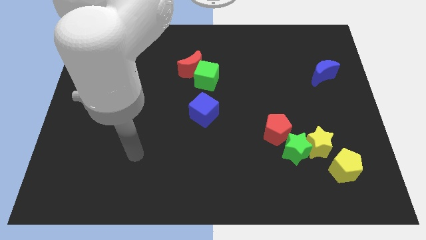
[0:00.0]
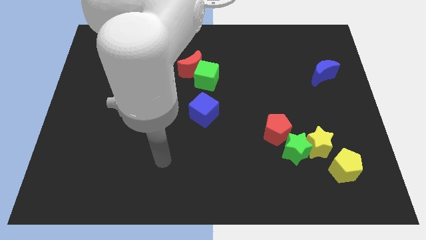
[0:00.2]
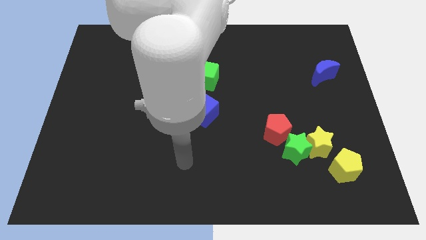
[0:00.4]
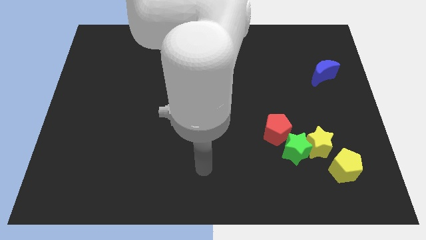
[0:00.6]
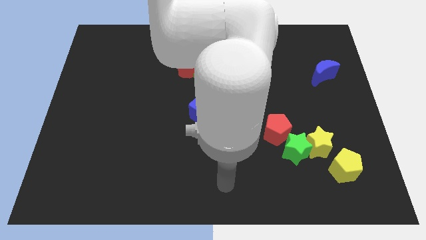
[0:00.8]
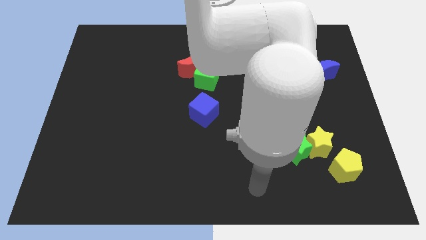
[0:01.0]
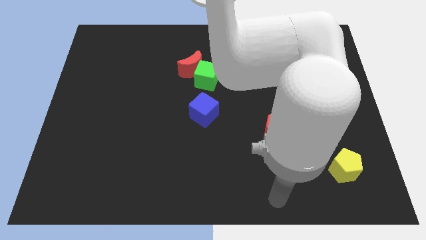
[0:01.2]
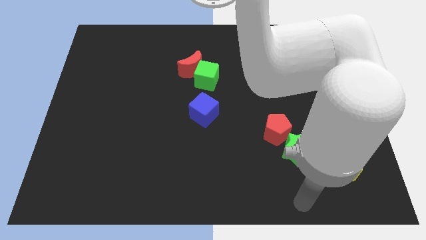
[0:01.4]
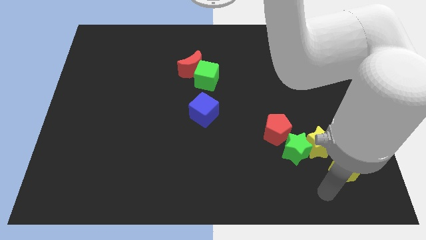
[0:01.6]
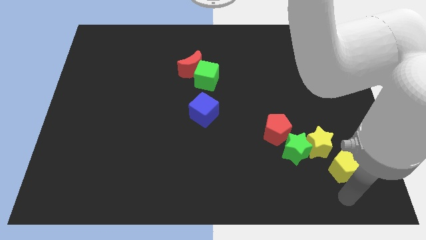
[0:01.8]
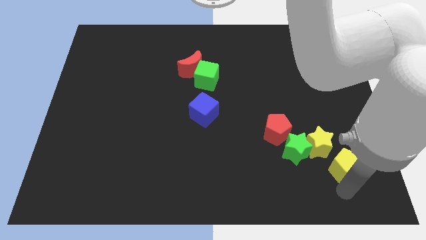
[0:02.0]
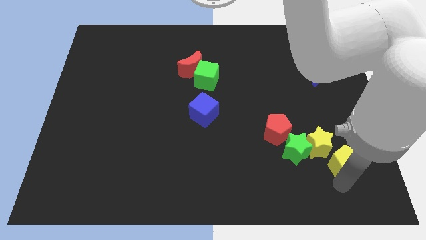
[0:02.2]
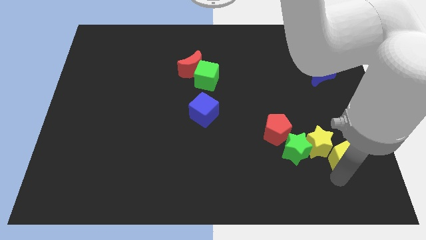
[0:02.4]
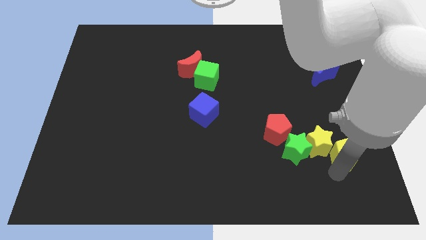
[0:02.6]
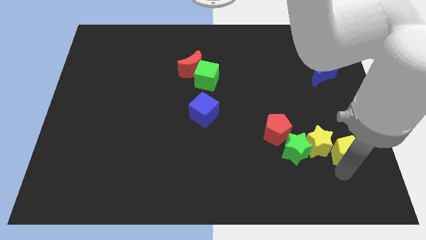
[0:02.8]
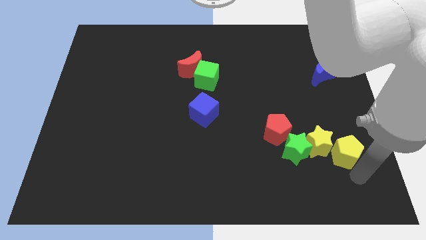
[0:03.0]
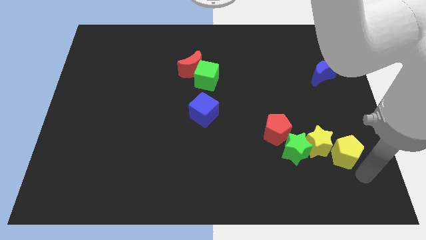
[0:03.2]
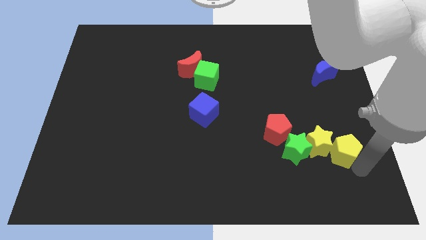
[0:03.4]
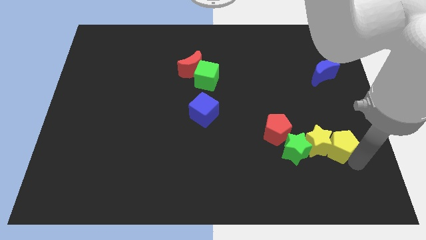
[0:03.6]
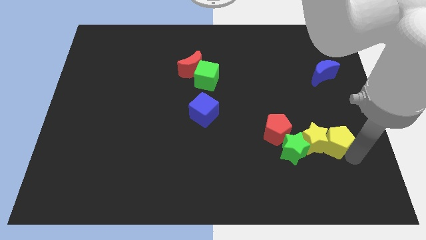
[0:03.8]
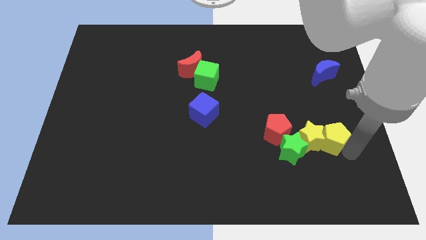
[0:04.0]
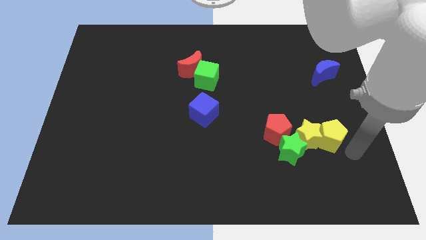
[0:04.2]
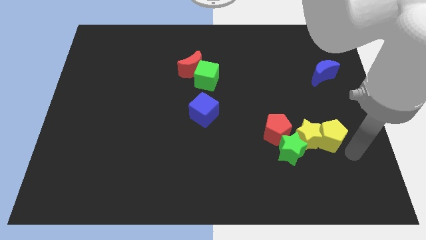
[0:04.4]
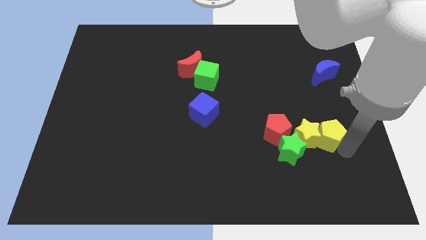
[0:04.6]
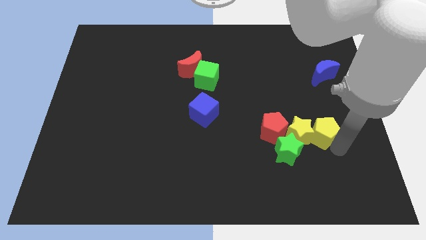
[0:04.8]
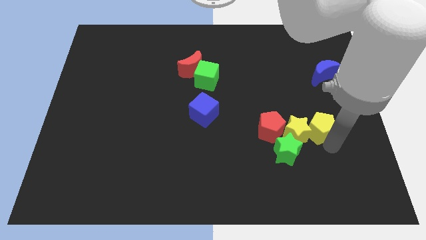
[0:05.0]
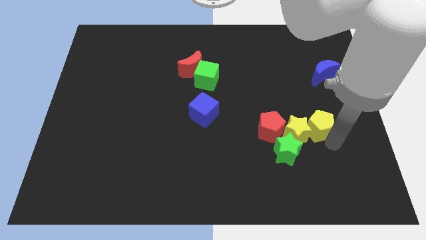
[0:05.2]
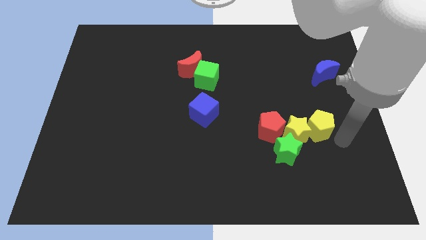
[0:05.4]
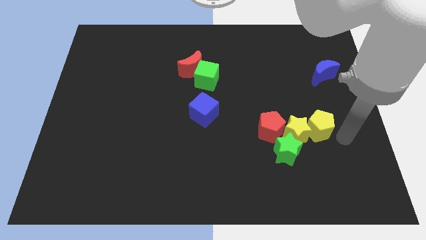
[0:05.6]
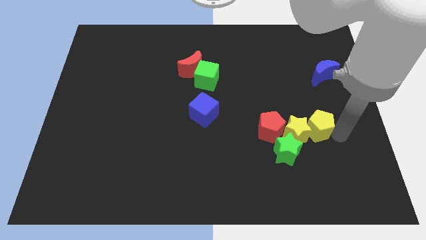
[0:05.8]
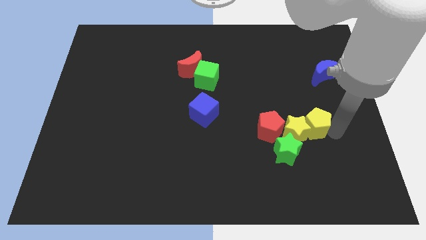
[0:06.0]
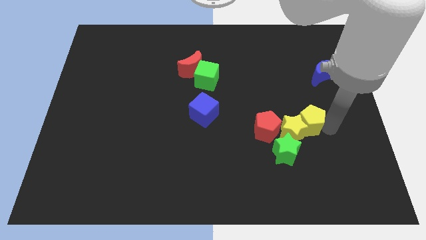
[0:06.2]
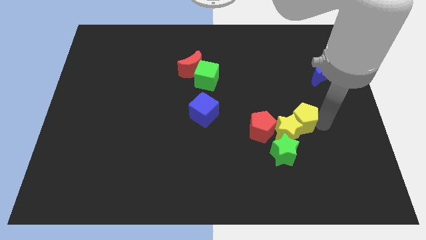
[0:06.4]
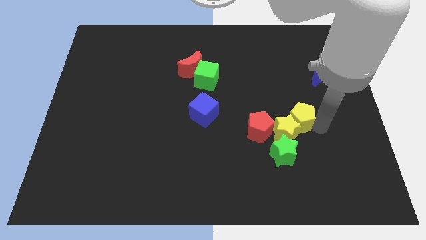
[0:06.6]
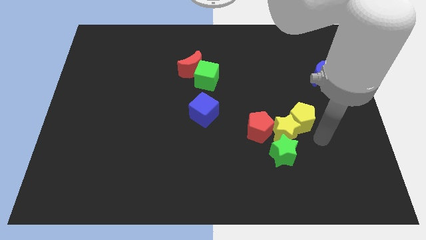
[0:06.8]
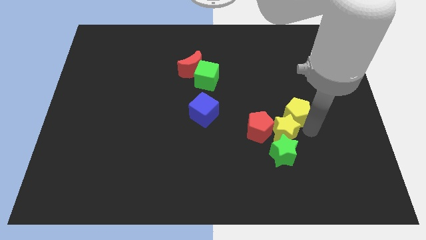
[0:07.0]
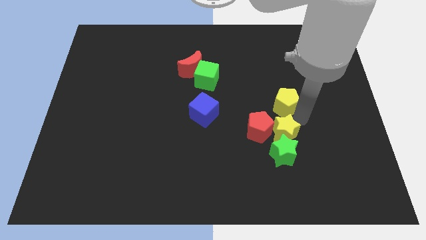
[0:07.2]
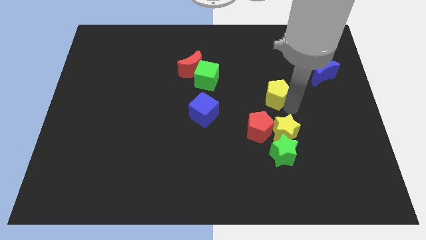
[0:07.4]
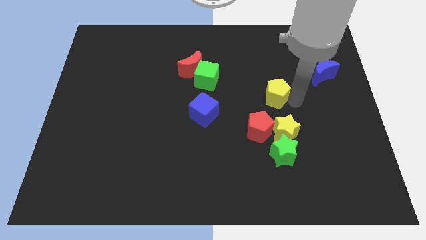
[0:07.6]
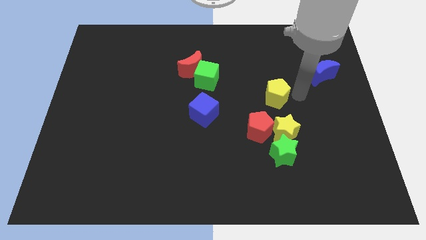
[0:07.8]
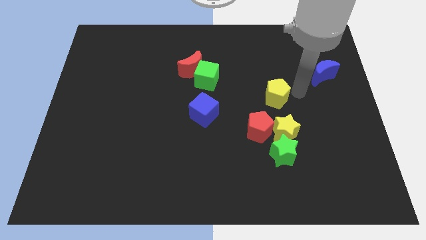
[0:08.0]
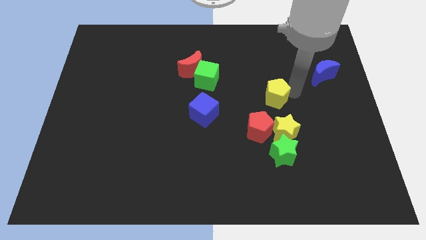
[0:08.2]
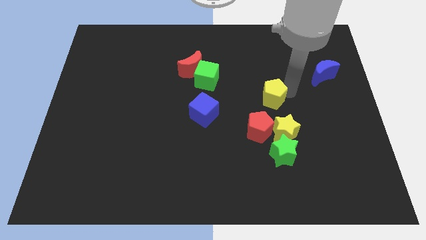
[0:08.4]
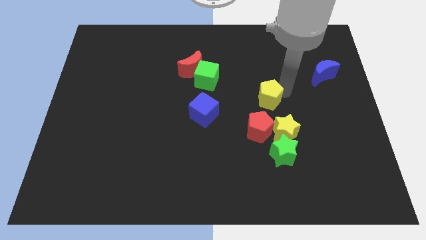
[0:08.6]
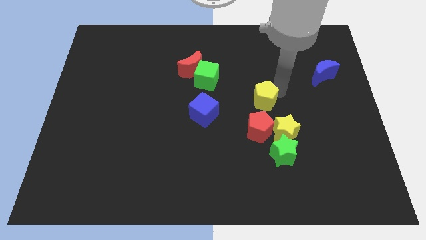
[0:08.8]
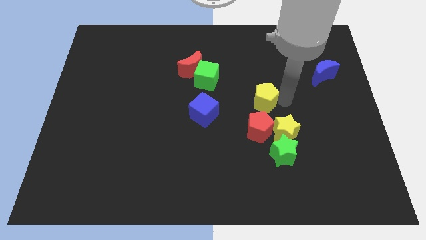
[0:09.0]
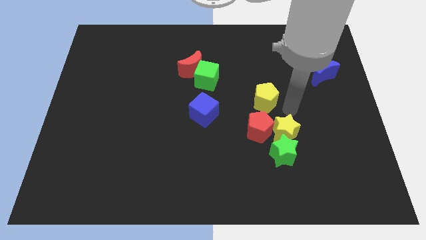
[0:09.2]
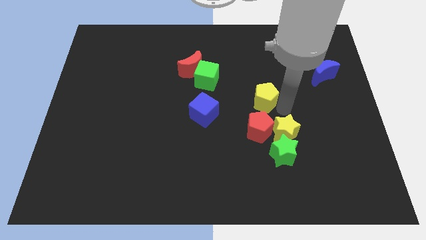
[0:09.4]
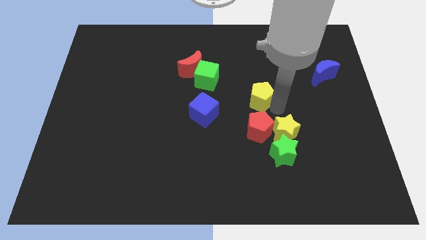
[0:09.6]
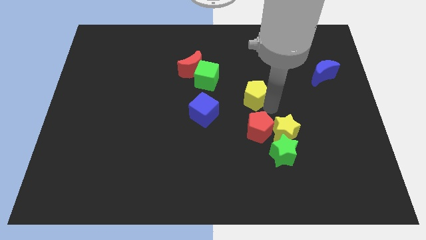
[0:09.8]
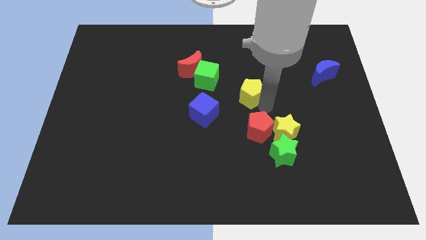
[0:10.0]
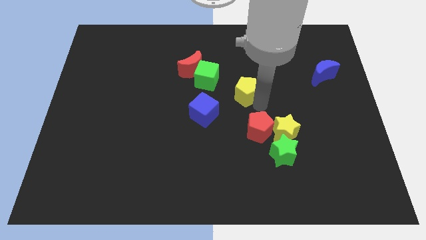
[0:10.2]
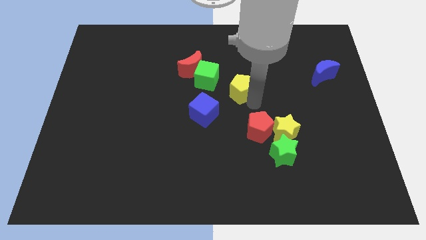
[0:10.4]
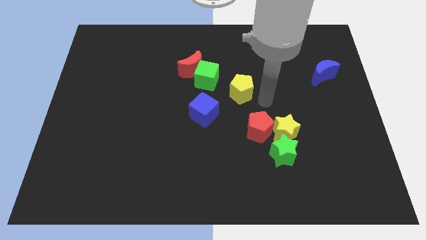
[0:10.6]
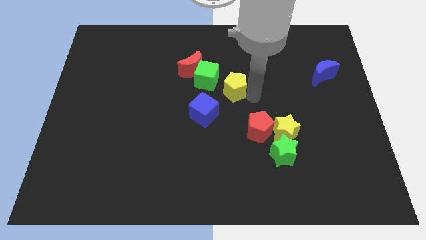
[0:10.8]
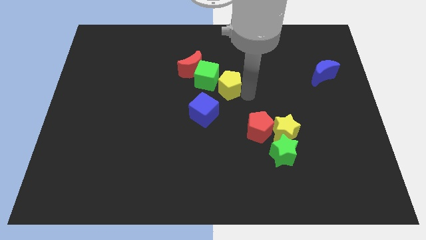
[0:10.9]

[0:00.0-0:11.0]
put the yellow pentagon to the green cube

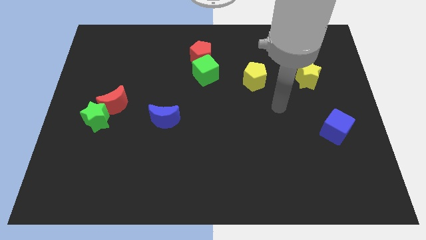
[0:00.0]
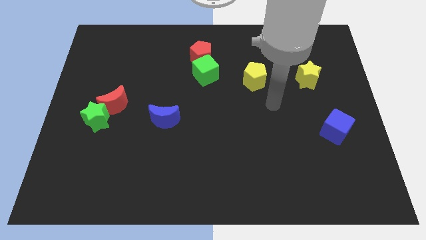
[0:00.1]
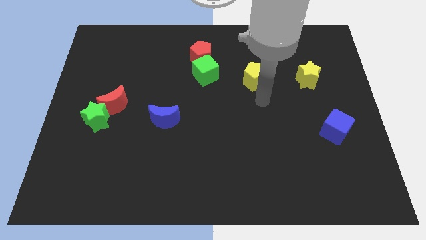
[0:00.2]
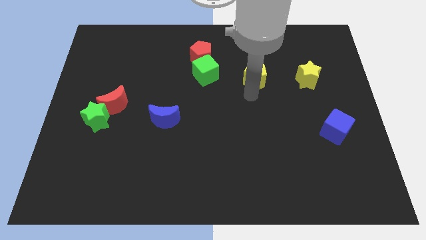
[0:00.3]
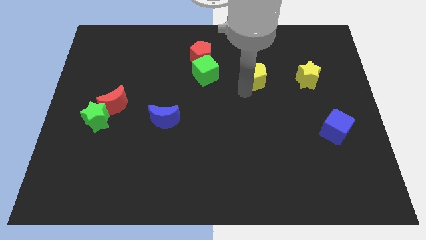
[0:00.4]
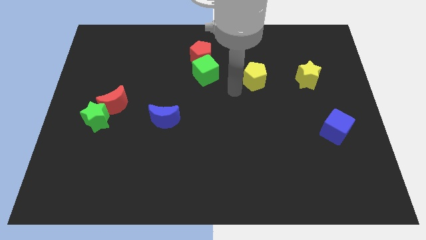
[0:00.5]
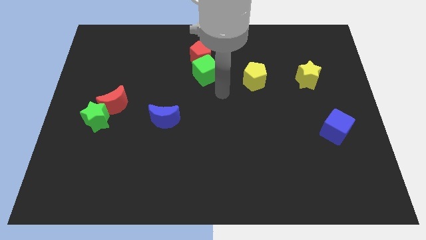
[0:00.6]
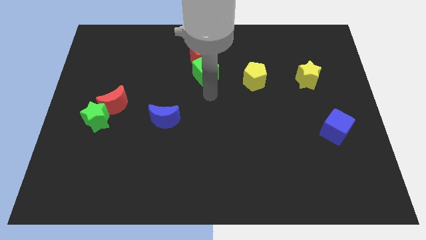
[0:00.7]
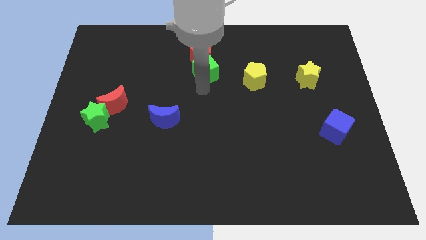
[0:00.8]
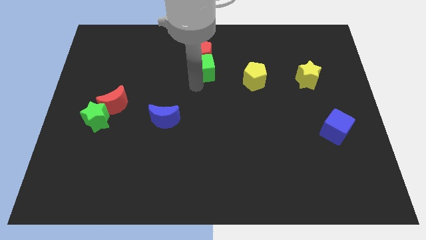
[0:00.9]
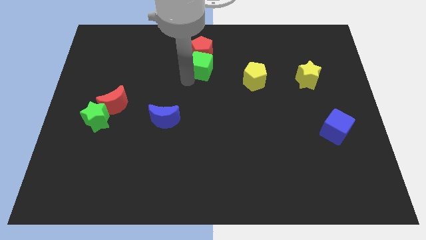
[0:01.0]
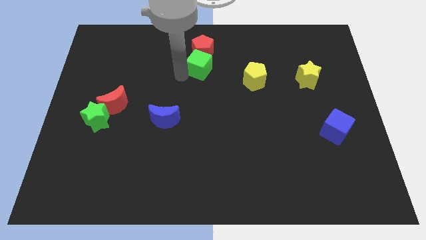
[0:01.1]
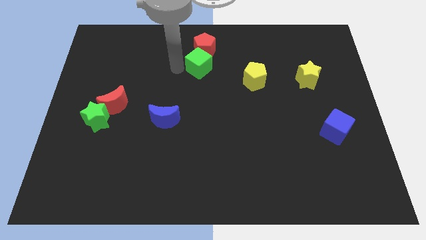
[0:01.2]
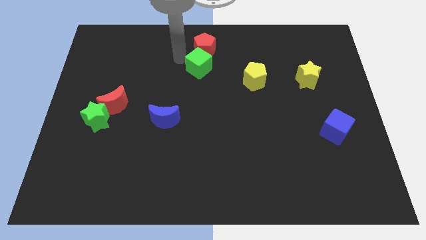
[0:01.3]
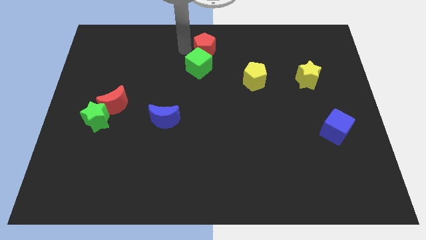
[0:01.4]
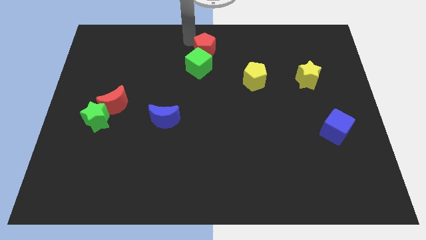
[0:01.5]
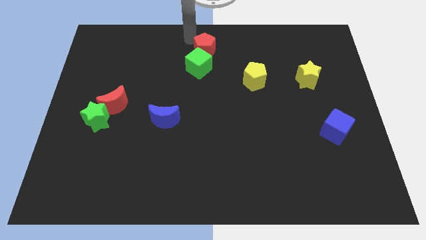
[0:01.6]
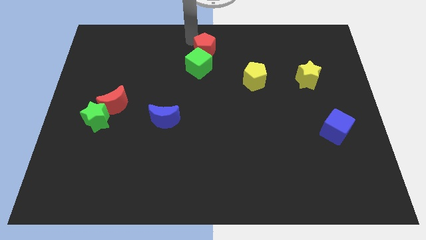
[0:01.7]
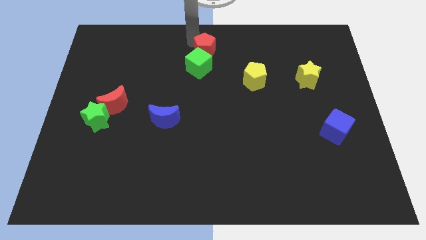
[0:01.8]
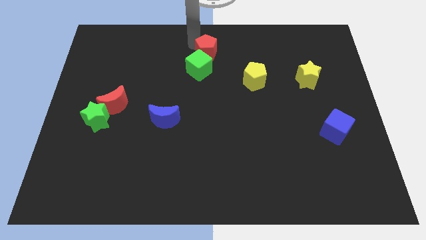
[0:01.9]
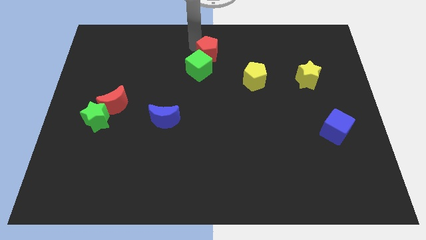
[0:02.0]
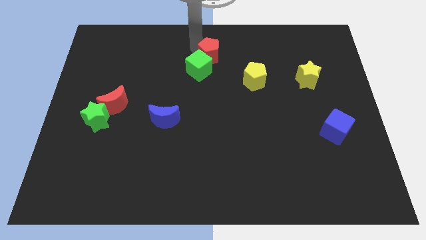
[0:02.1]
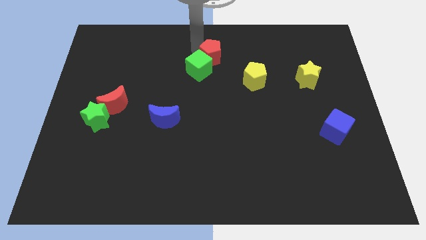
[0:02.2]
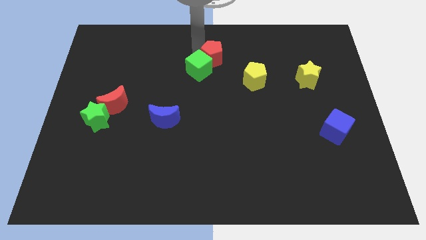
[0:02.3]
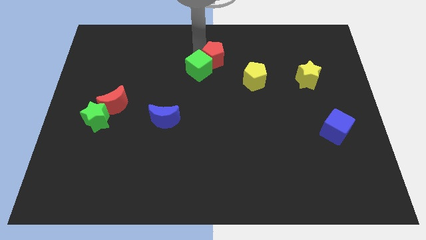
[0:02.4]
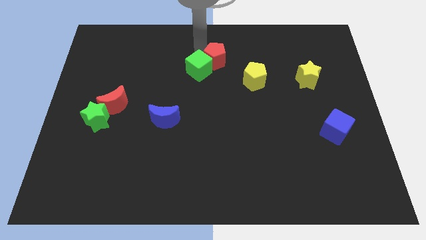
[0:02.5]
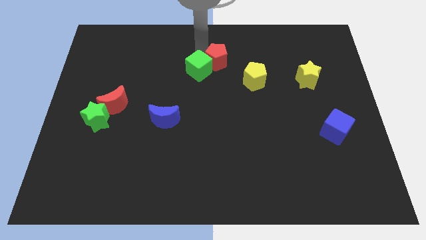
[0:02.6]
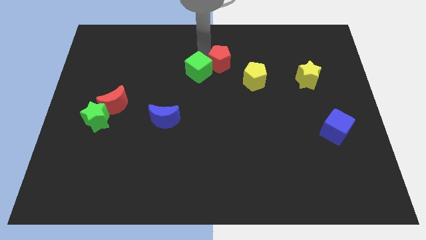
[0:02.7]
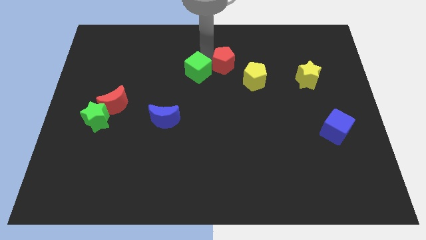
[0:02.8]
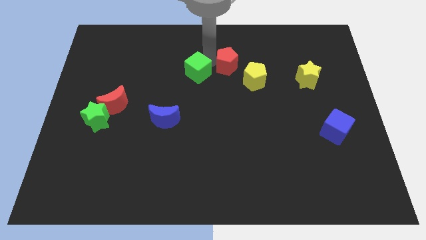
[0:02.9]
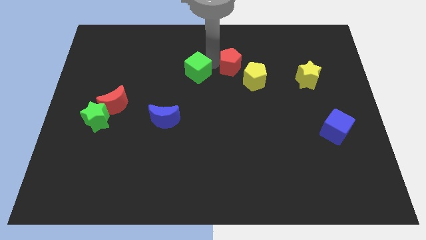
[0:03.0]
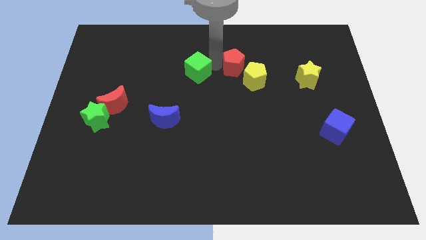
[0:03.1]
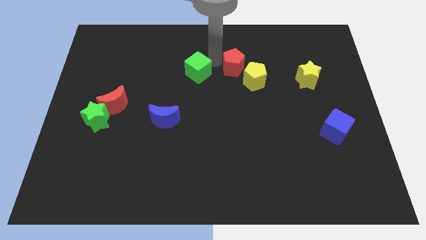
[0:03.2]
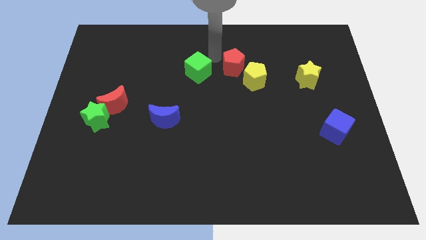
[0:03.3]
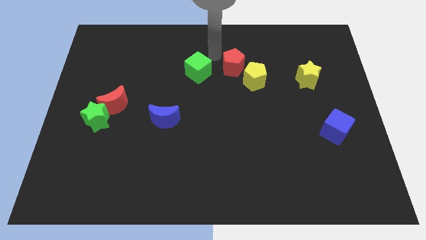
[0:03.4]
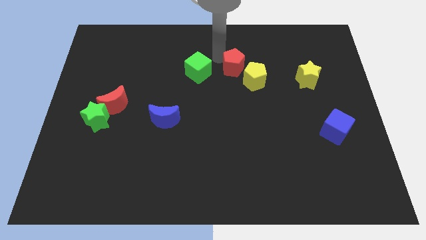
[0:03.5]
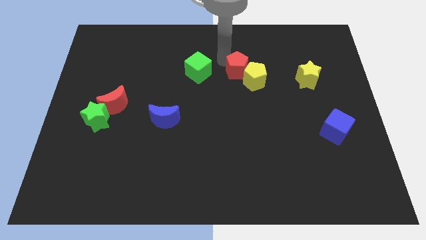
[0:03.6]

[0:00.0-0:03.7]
move the red pentagon close to the yellow pentagon
